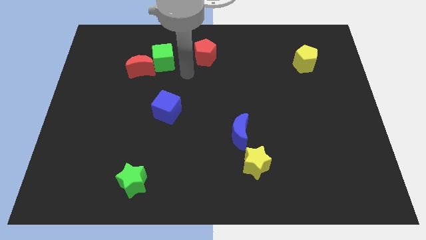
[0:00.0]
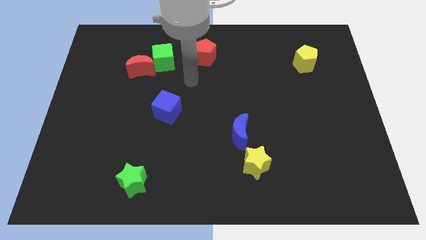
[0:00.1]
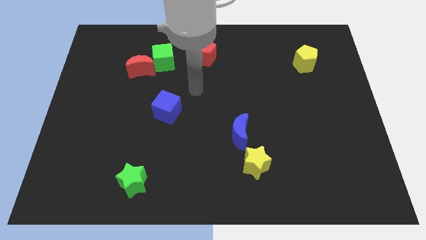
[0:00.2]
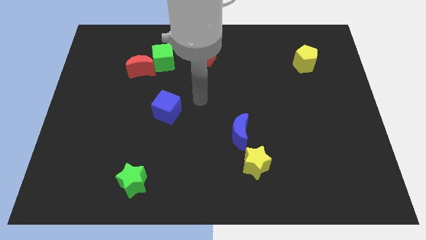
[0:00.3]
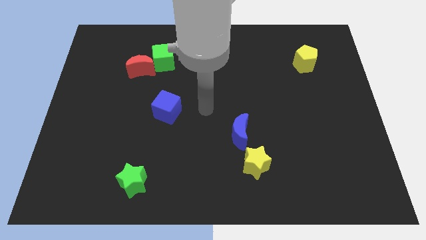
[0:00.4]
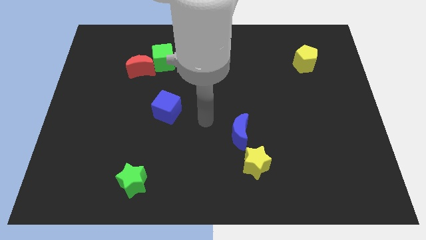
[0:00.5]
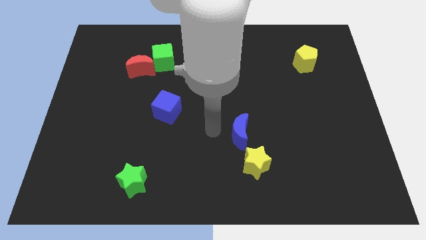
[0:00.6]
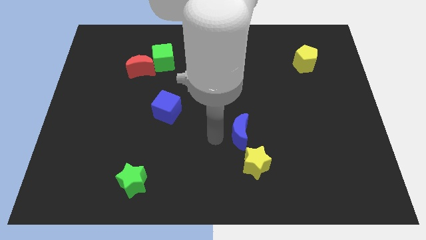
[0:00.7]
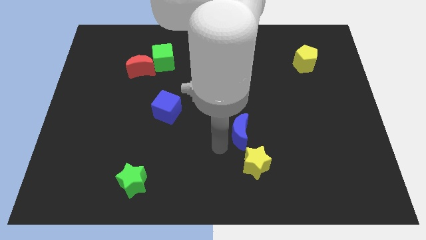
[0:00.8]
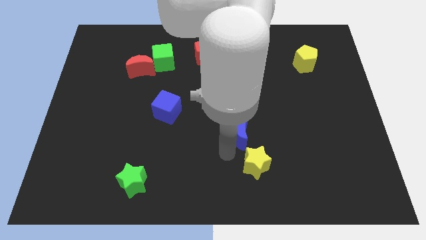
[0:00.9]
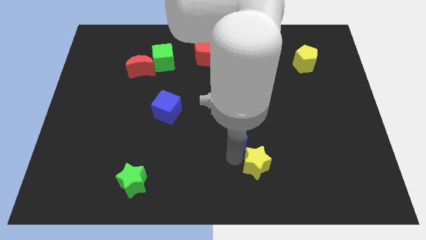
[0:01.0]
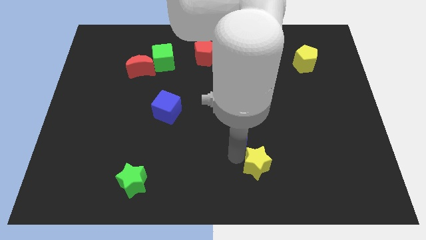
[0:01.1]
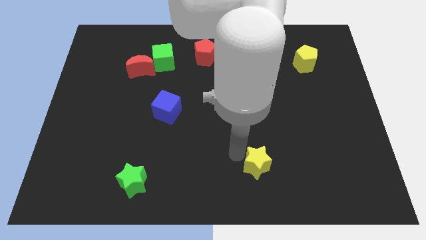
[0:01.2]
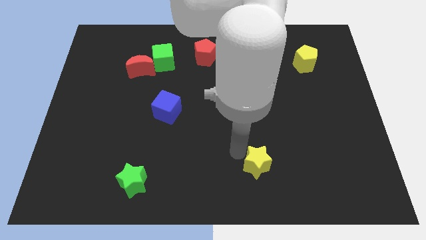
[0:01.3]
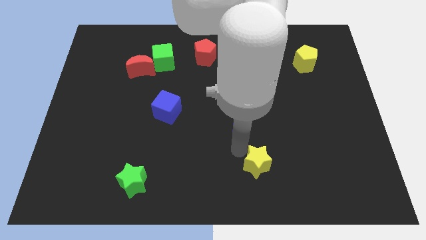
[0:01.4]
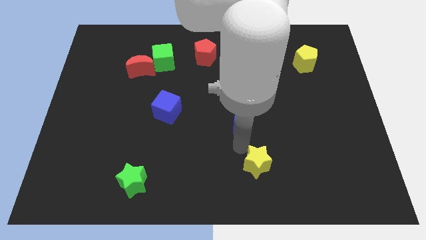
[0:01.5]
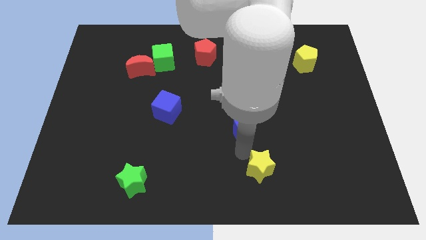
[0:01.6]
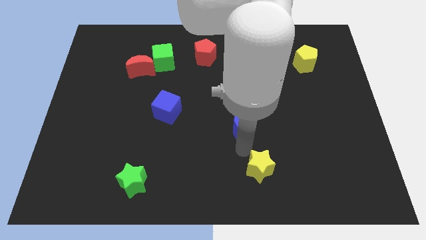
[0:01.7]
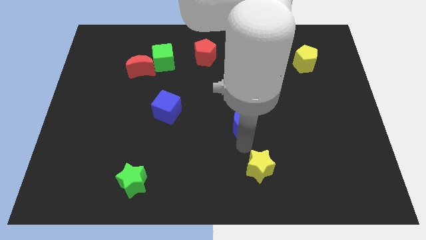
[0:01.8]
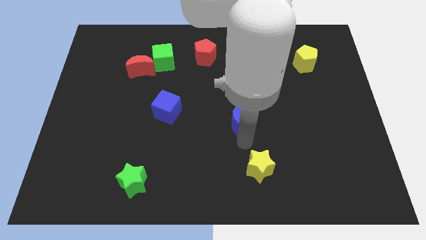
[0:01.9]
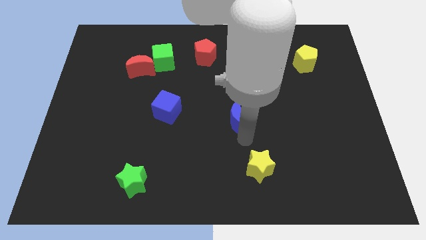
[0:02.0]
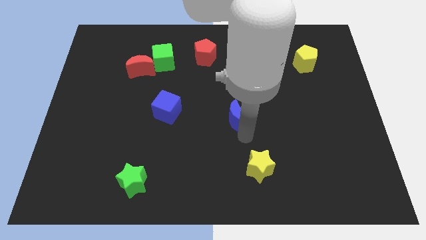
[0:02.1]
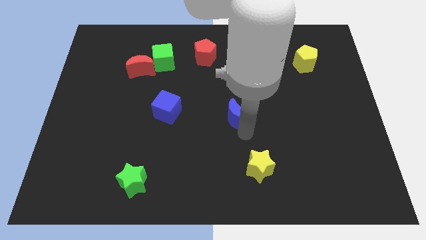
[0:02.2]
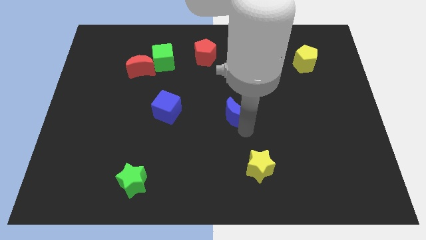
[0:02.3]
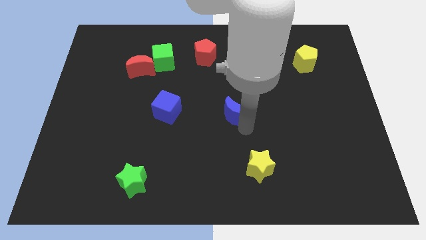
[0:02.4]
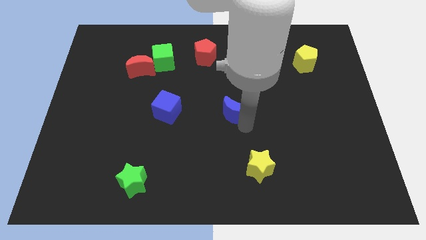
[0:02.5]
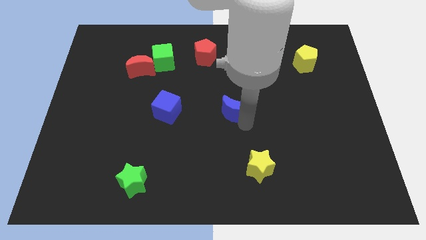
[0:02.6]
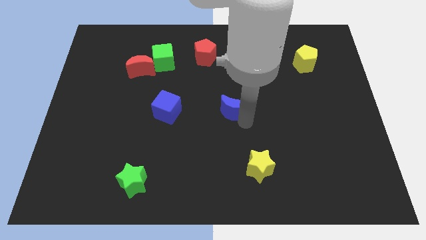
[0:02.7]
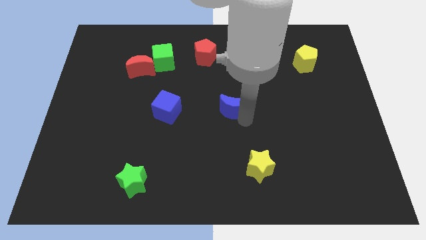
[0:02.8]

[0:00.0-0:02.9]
move the blue moon a little bit upwards

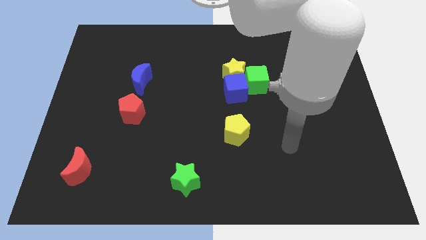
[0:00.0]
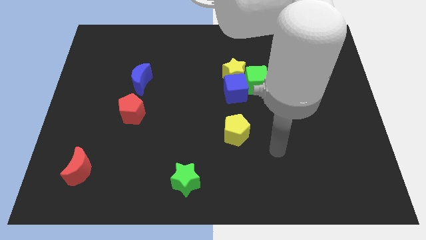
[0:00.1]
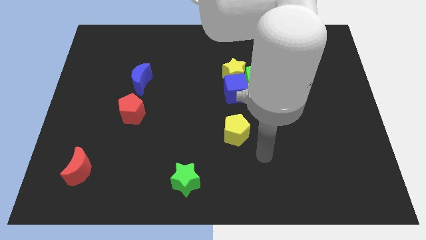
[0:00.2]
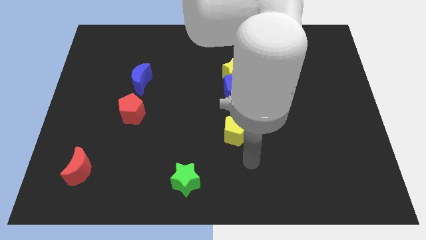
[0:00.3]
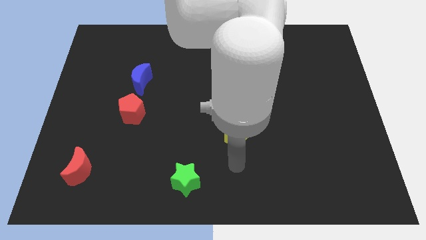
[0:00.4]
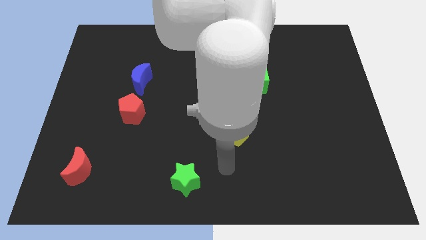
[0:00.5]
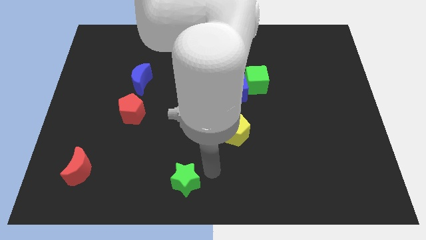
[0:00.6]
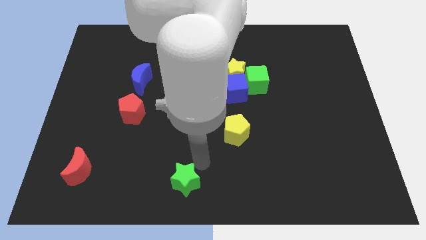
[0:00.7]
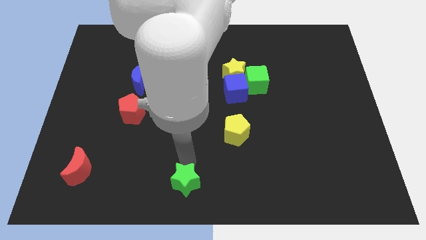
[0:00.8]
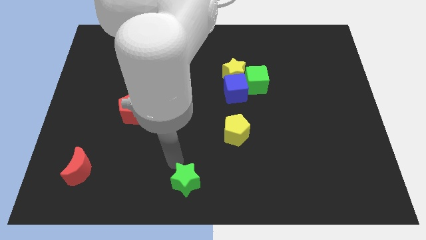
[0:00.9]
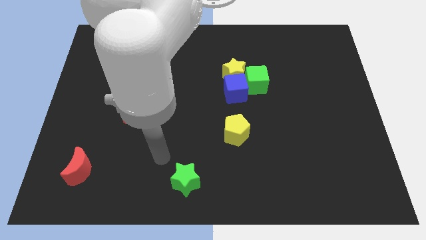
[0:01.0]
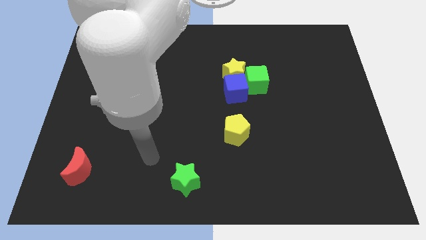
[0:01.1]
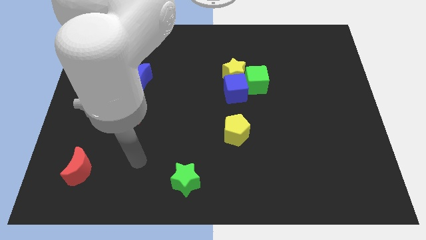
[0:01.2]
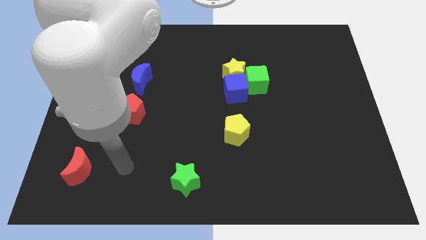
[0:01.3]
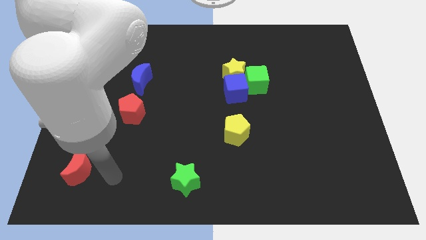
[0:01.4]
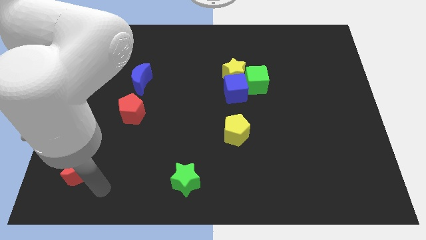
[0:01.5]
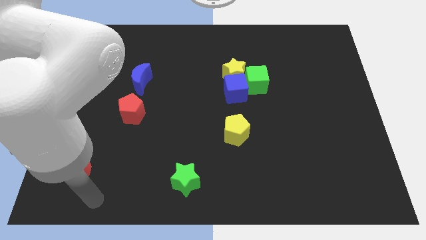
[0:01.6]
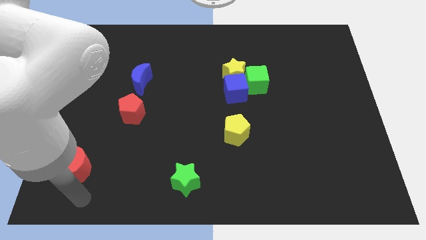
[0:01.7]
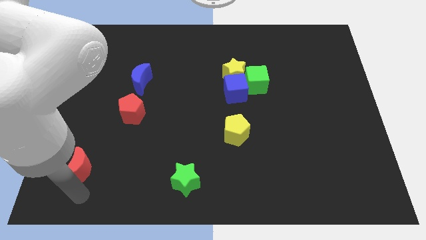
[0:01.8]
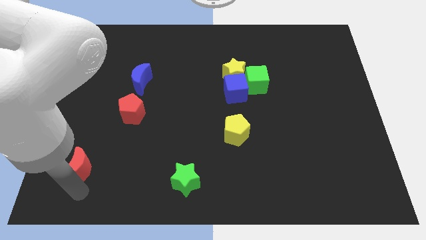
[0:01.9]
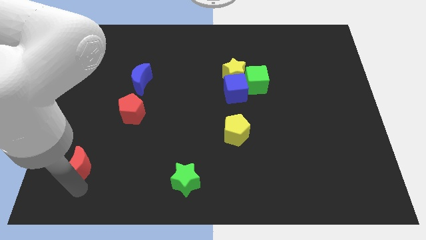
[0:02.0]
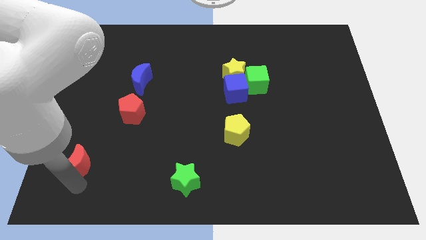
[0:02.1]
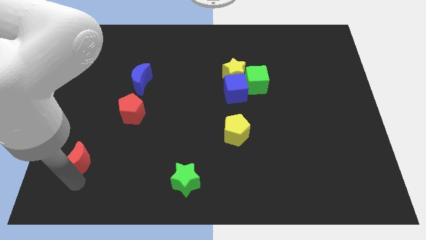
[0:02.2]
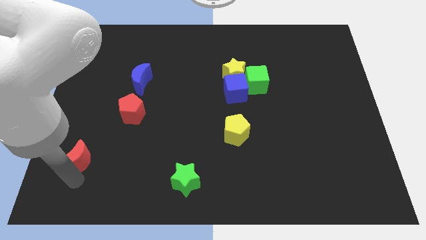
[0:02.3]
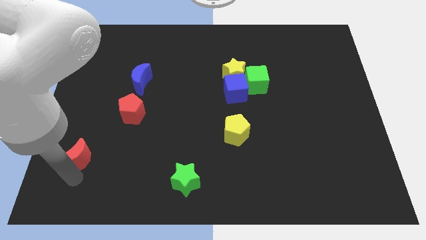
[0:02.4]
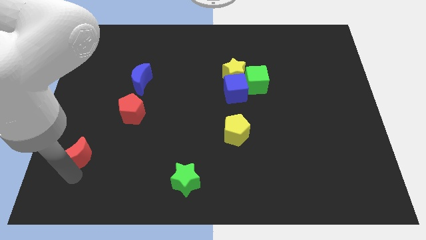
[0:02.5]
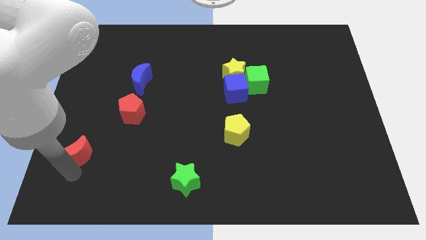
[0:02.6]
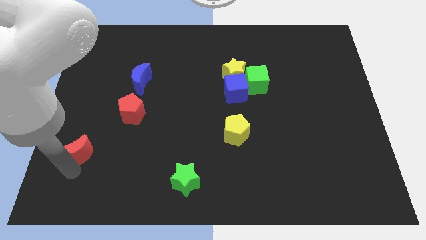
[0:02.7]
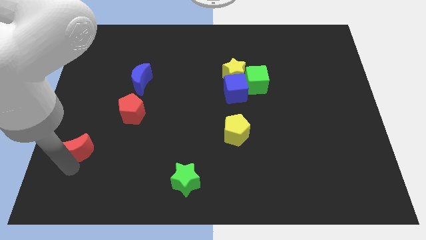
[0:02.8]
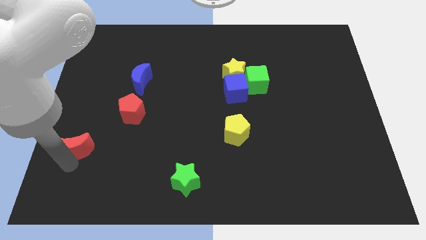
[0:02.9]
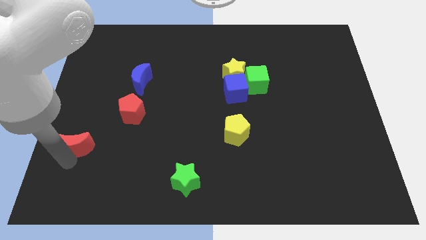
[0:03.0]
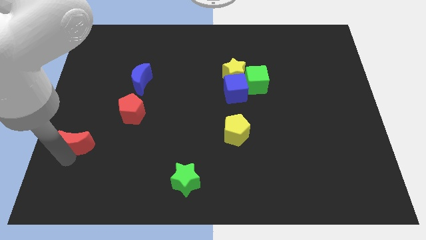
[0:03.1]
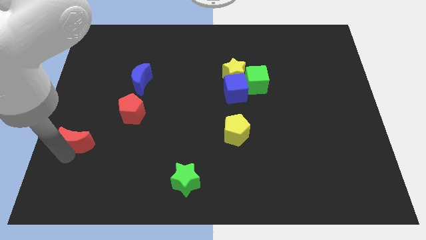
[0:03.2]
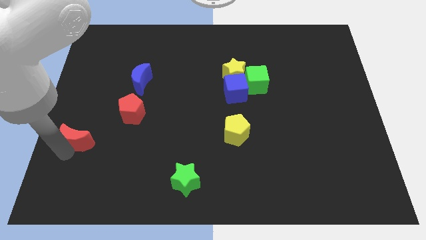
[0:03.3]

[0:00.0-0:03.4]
slide the red moon somewhat upwards

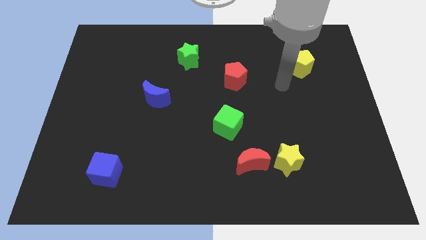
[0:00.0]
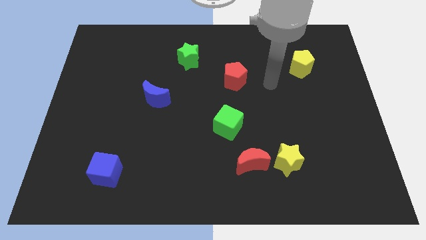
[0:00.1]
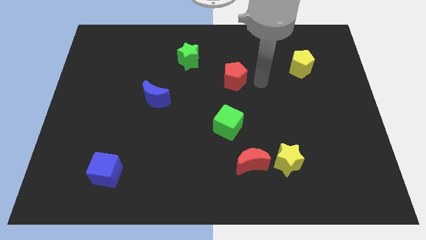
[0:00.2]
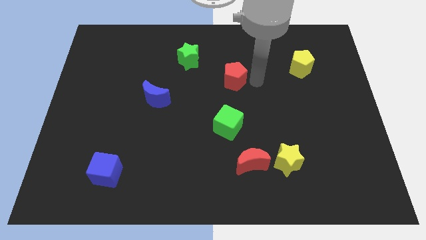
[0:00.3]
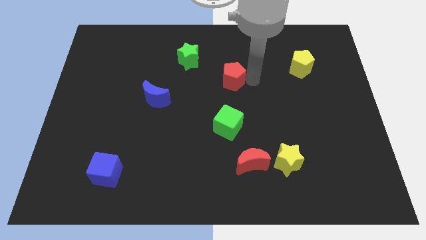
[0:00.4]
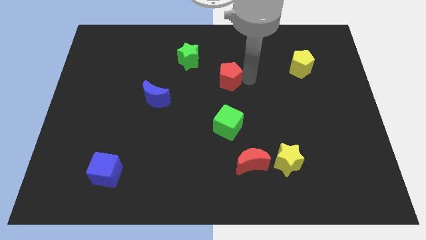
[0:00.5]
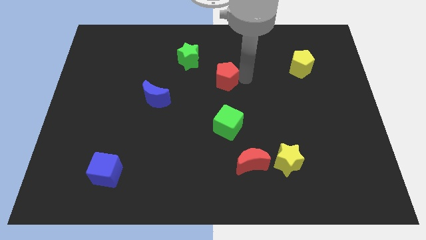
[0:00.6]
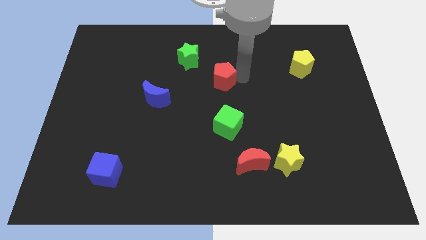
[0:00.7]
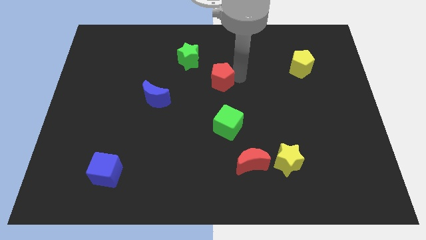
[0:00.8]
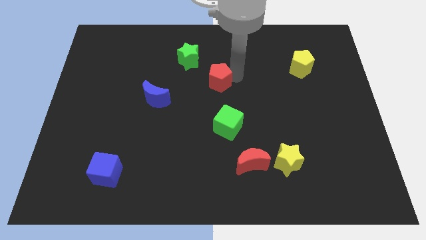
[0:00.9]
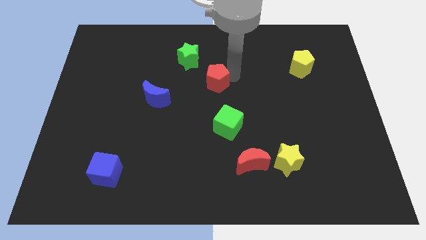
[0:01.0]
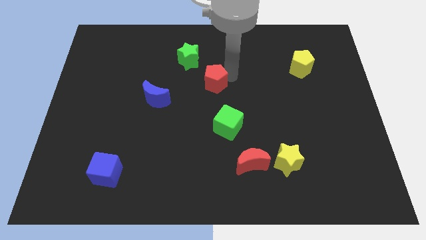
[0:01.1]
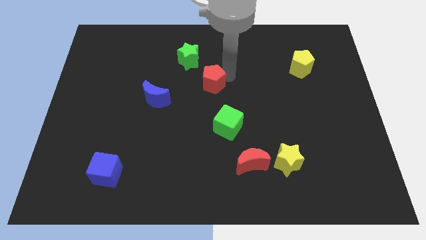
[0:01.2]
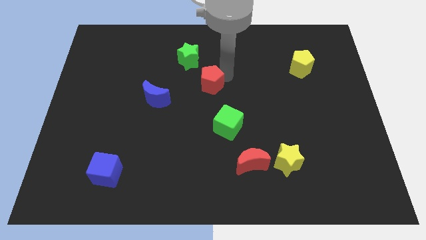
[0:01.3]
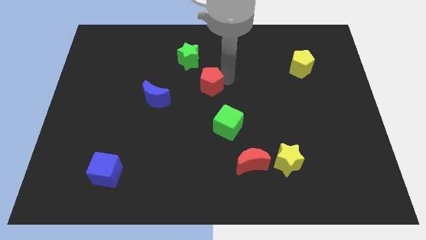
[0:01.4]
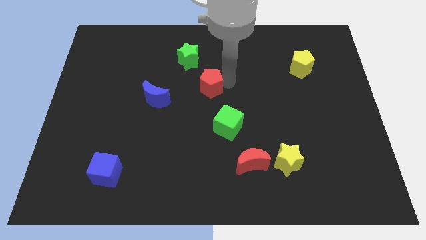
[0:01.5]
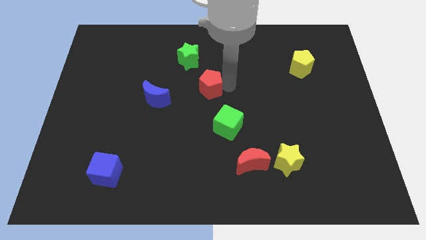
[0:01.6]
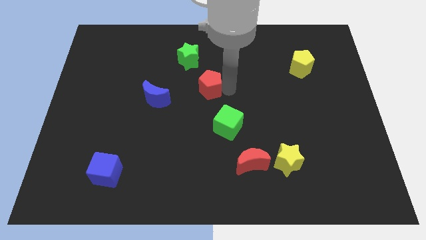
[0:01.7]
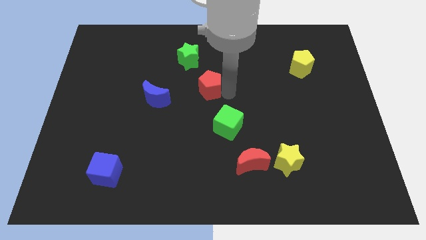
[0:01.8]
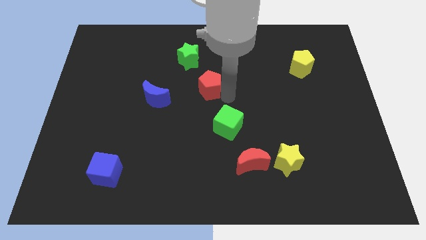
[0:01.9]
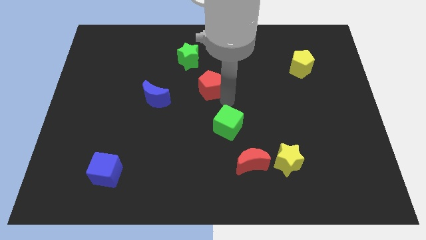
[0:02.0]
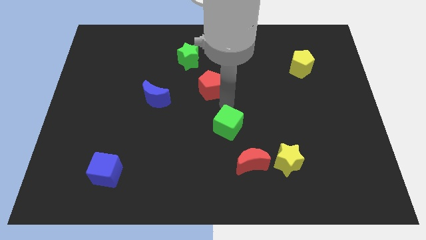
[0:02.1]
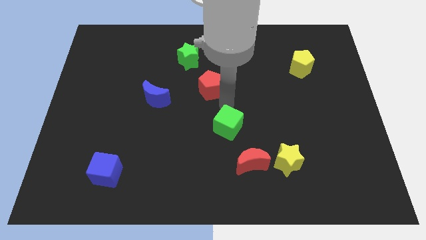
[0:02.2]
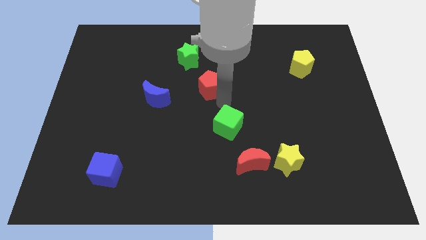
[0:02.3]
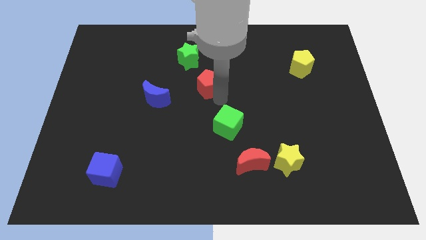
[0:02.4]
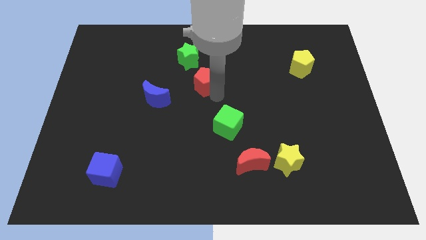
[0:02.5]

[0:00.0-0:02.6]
slightly move the red pentagon left
